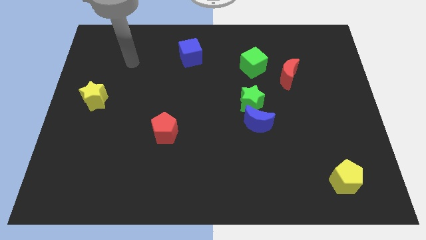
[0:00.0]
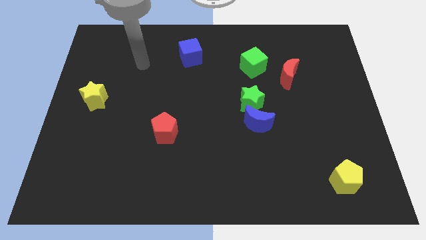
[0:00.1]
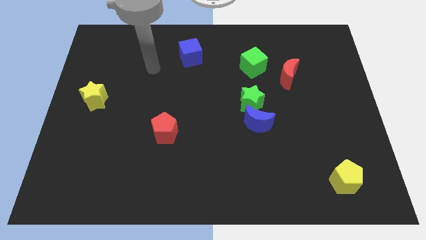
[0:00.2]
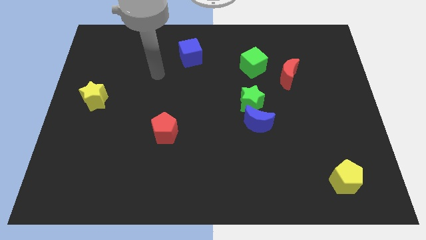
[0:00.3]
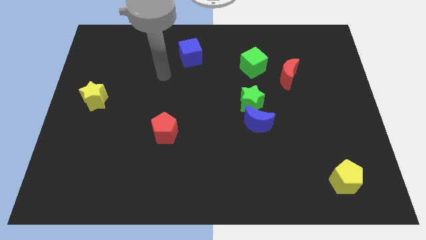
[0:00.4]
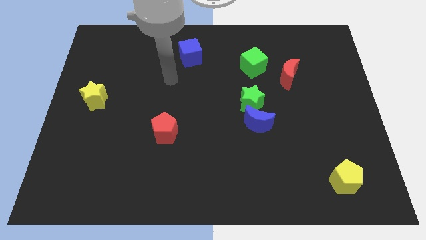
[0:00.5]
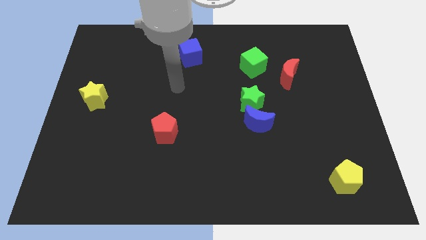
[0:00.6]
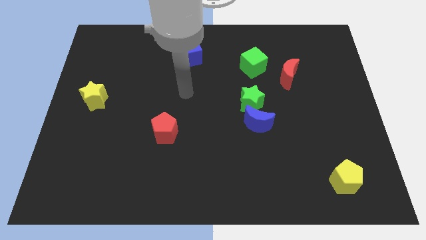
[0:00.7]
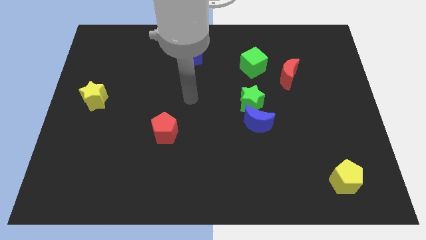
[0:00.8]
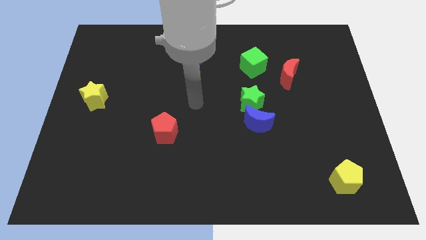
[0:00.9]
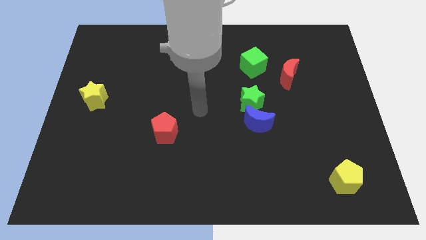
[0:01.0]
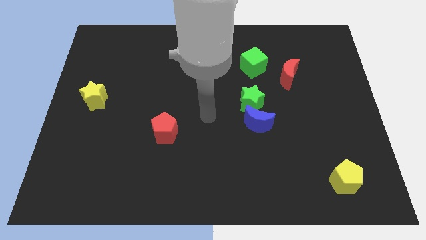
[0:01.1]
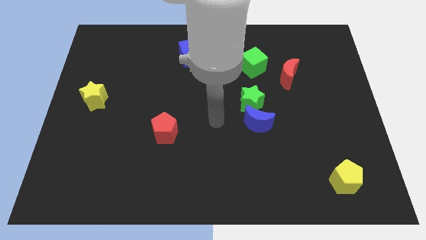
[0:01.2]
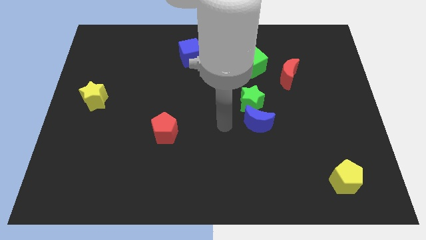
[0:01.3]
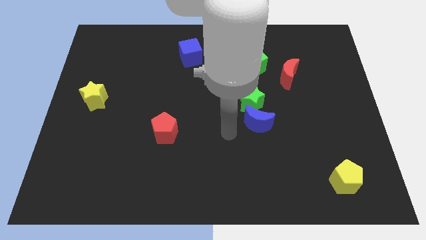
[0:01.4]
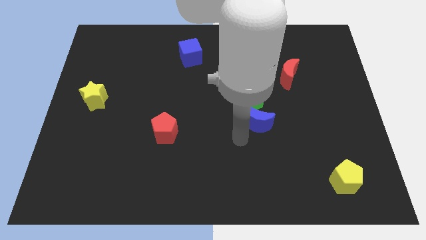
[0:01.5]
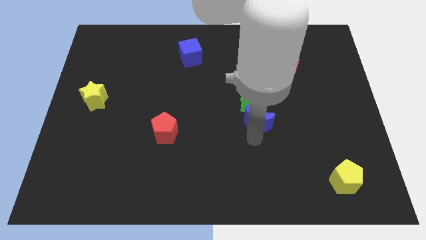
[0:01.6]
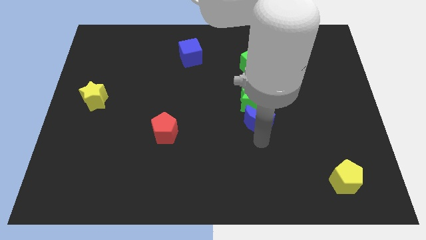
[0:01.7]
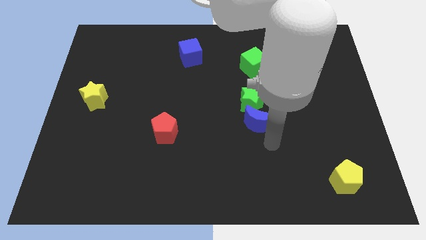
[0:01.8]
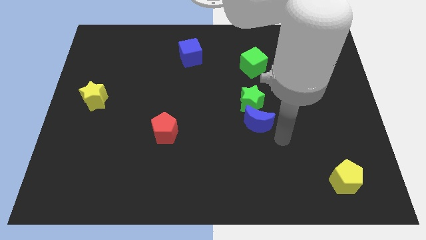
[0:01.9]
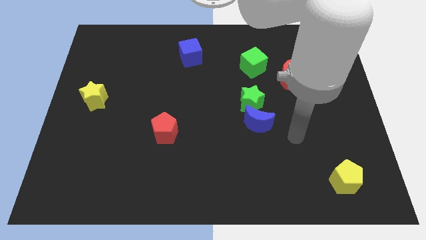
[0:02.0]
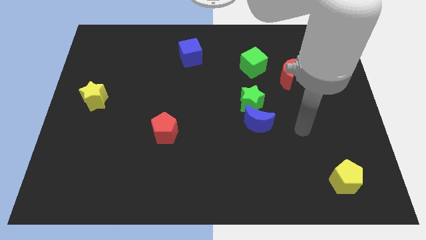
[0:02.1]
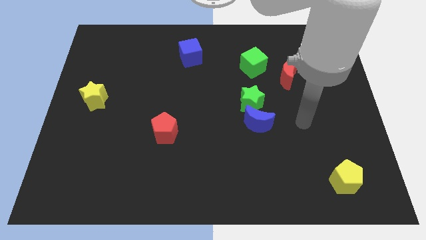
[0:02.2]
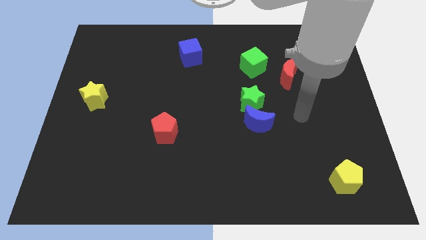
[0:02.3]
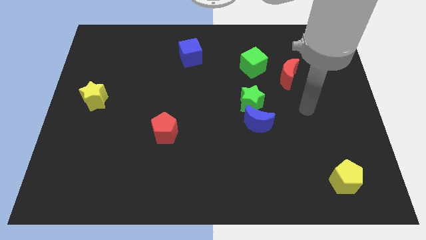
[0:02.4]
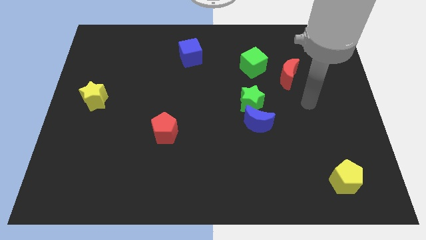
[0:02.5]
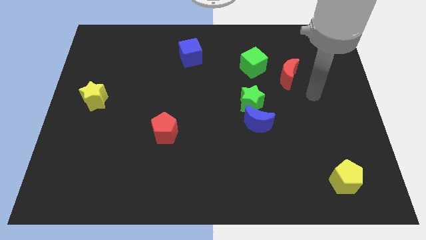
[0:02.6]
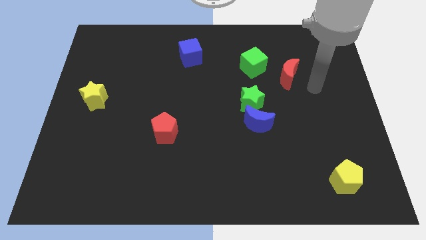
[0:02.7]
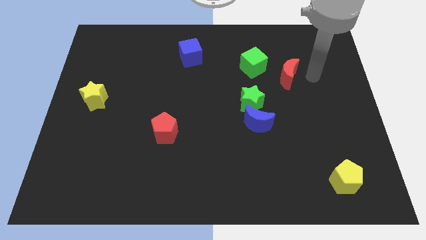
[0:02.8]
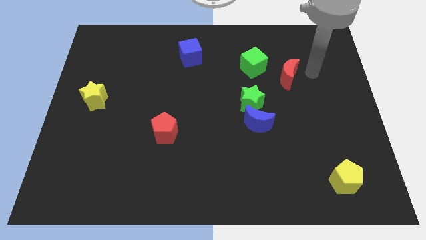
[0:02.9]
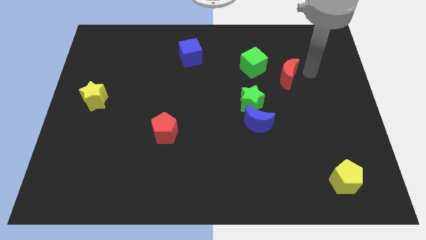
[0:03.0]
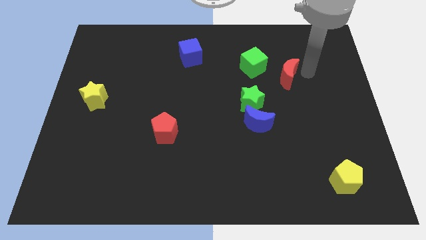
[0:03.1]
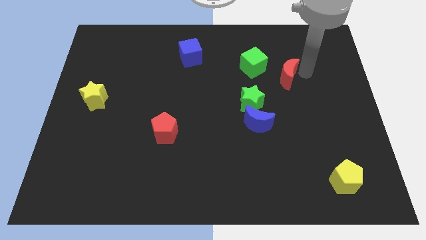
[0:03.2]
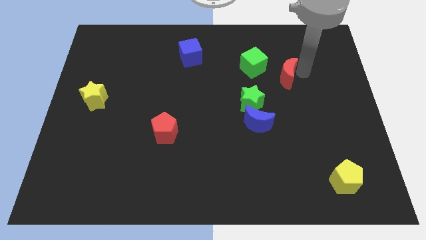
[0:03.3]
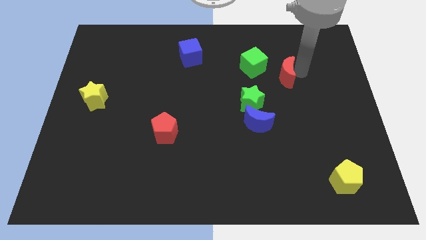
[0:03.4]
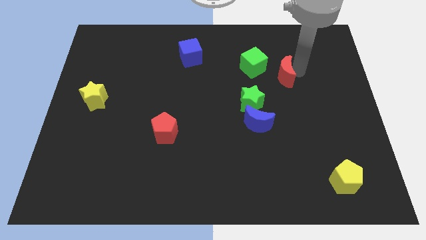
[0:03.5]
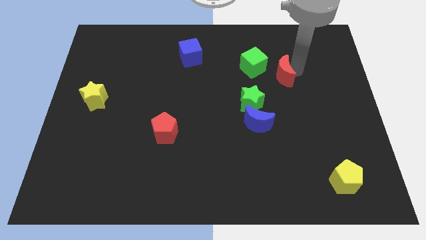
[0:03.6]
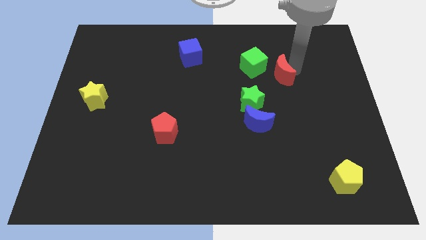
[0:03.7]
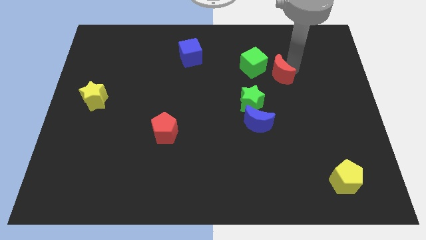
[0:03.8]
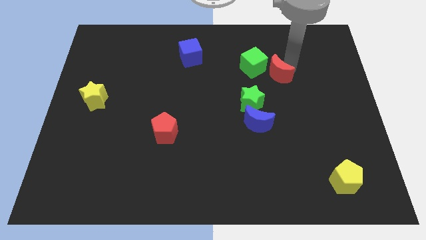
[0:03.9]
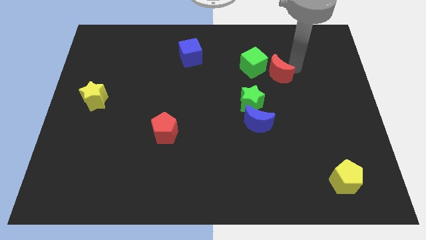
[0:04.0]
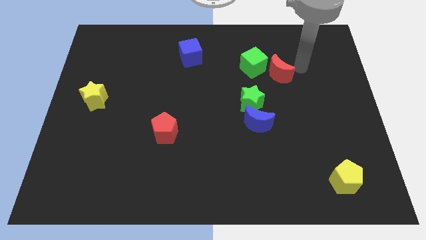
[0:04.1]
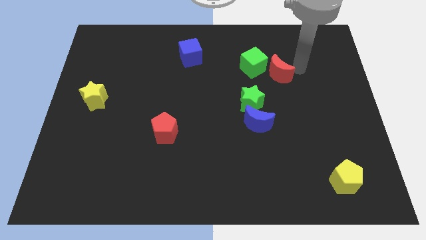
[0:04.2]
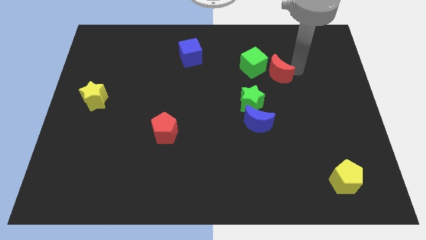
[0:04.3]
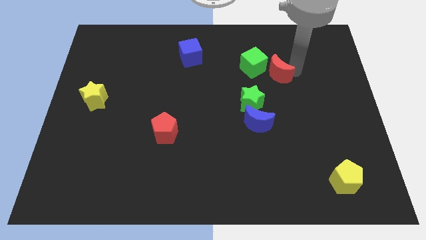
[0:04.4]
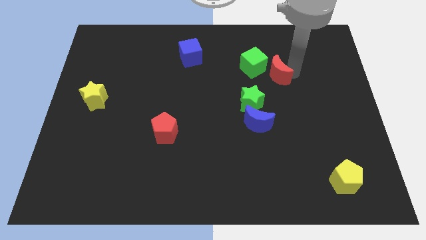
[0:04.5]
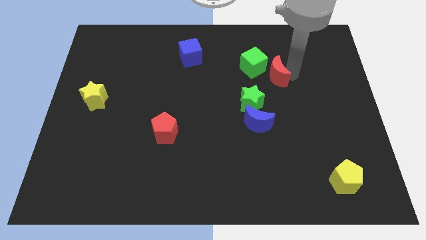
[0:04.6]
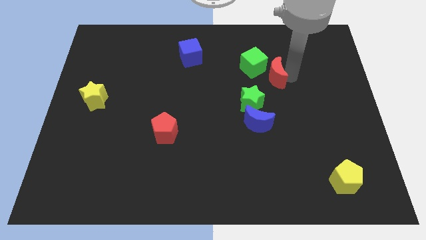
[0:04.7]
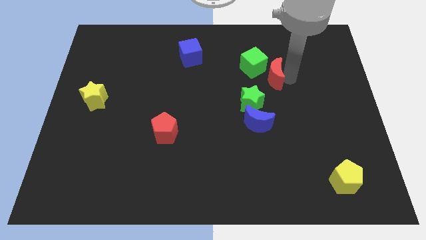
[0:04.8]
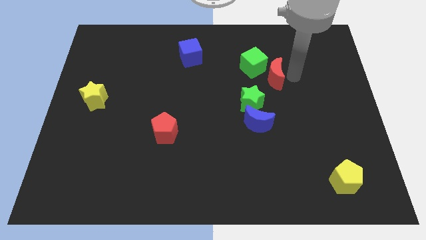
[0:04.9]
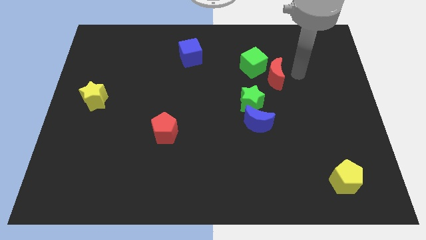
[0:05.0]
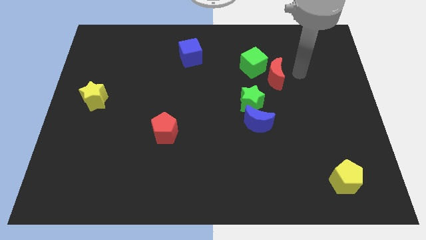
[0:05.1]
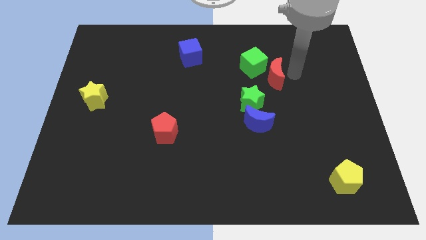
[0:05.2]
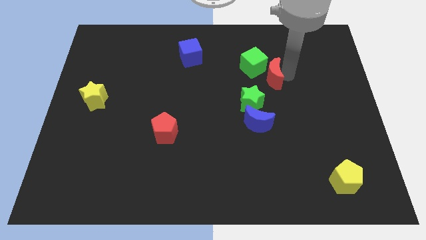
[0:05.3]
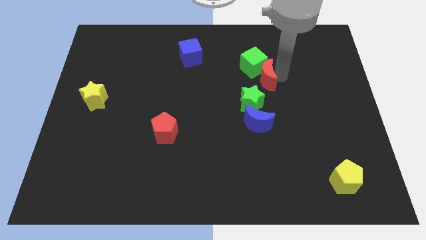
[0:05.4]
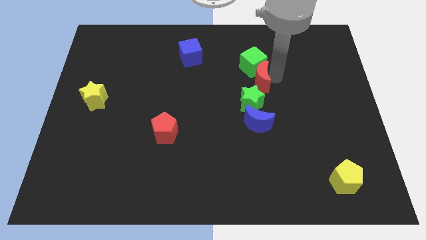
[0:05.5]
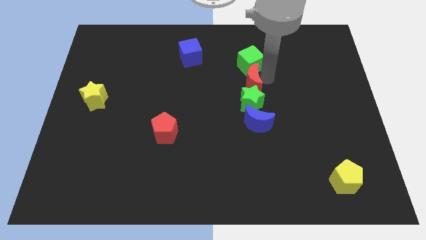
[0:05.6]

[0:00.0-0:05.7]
slide the red moon to the center
